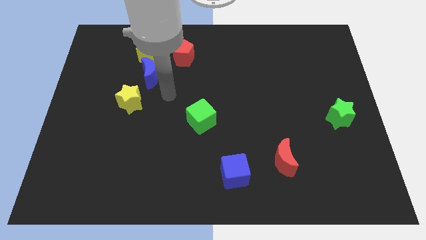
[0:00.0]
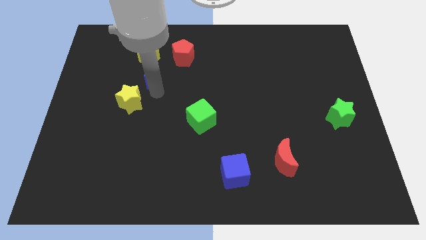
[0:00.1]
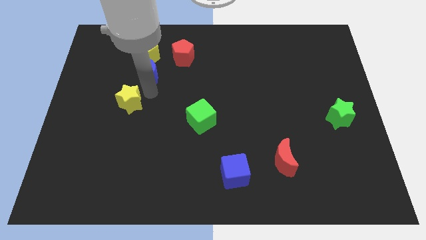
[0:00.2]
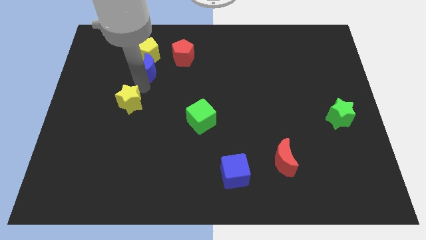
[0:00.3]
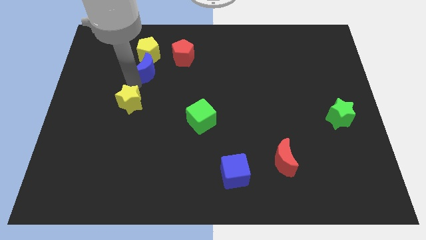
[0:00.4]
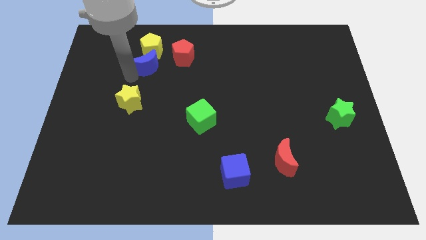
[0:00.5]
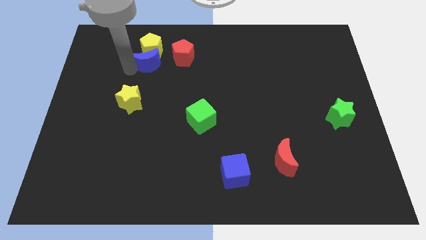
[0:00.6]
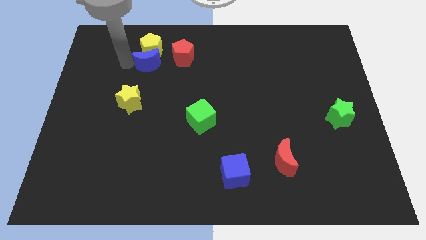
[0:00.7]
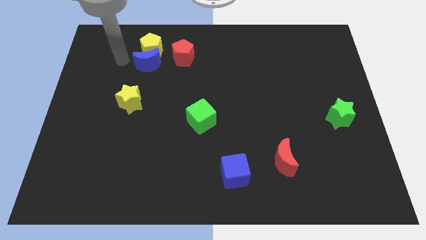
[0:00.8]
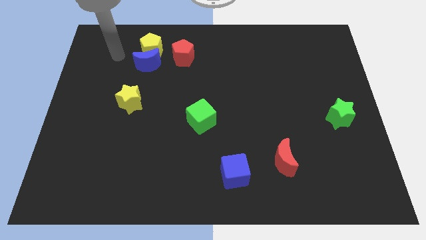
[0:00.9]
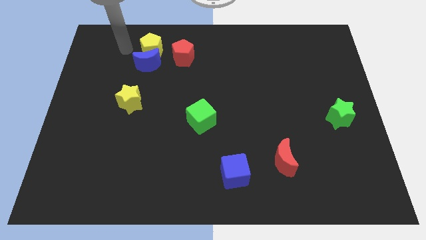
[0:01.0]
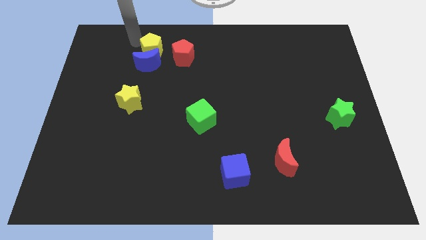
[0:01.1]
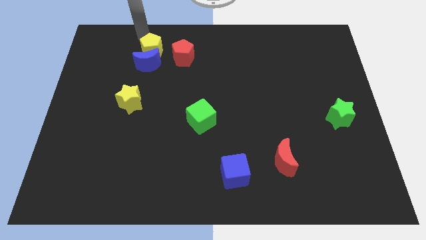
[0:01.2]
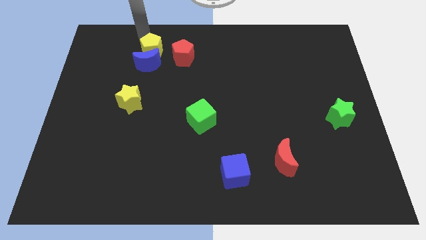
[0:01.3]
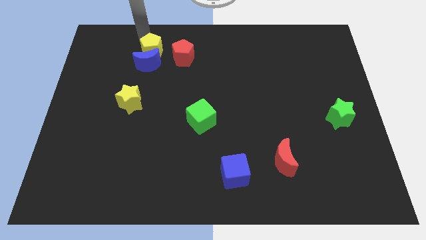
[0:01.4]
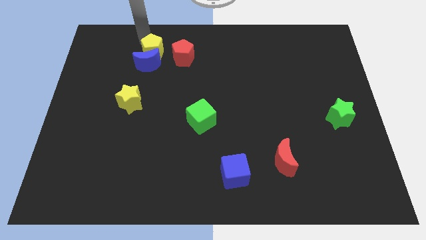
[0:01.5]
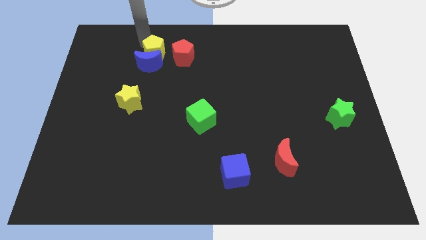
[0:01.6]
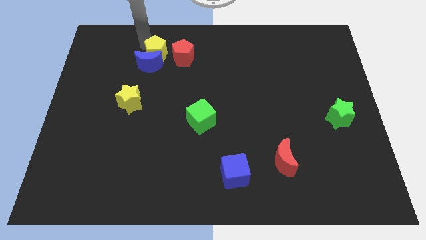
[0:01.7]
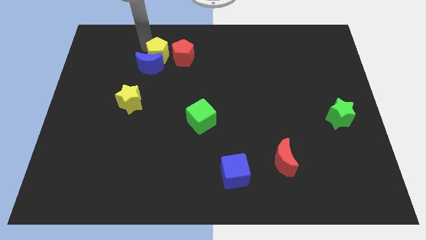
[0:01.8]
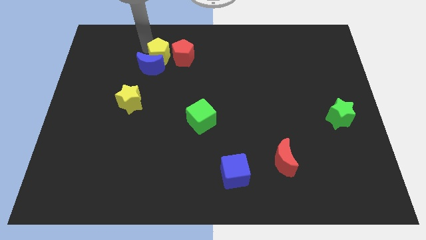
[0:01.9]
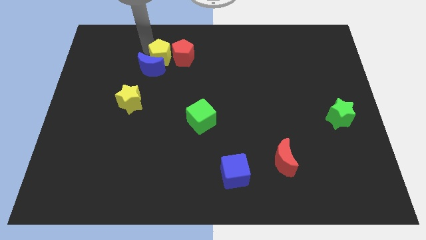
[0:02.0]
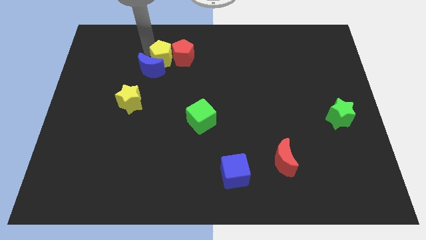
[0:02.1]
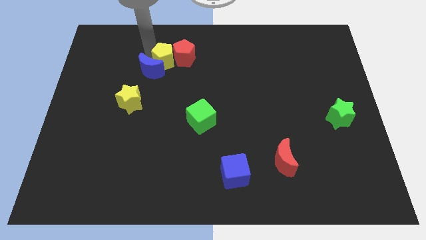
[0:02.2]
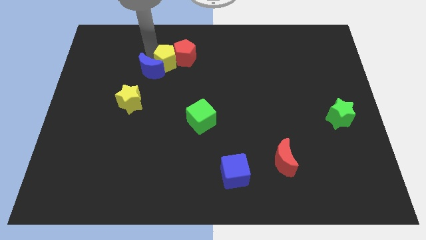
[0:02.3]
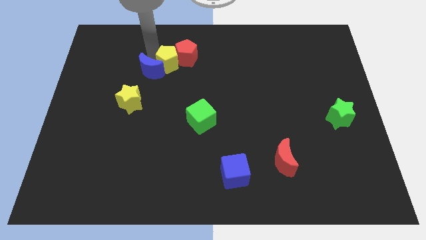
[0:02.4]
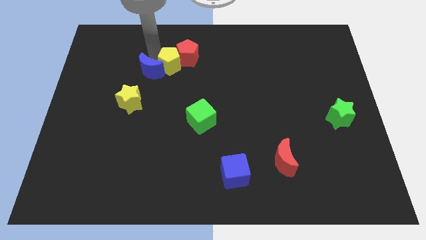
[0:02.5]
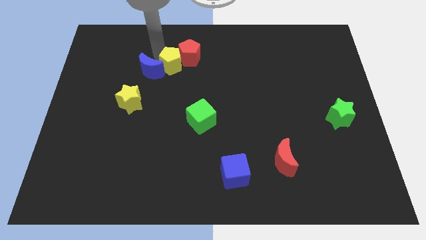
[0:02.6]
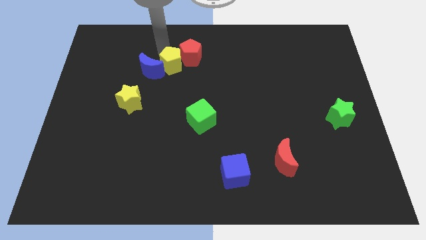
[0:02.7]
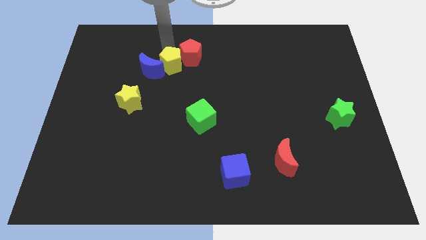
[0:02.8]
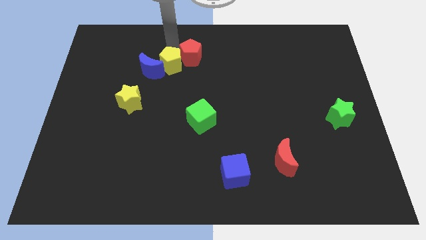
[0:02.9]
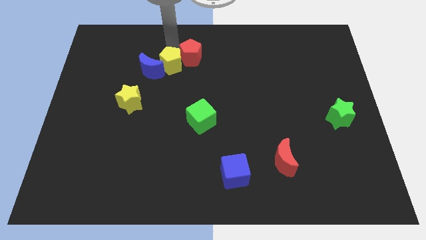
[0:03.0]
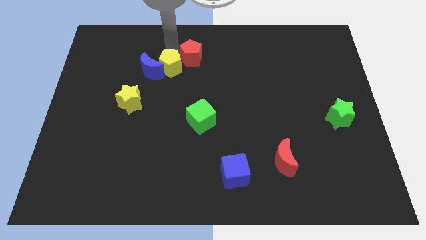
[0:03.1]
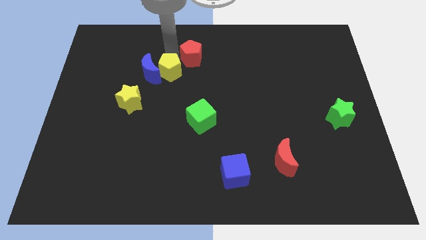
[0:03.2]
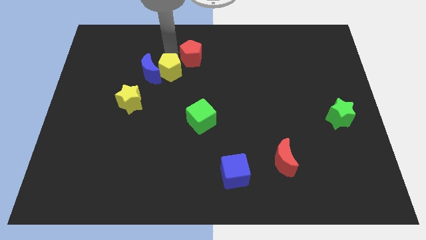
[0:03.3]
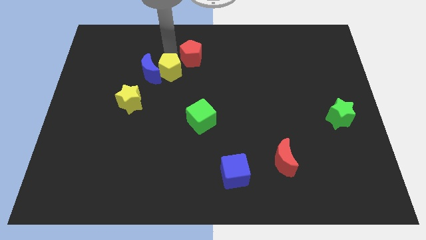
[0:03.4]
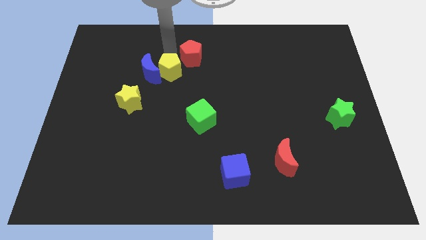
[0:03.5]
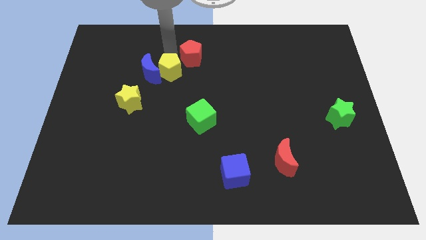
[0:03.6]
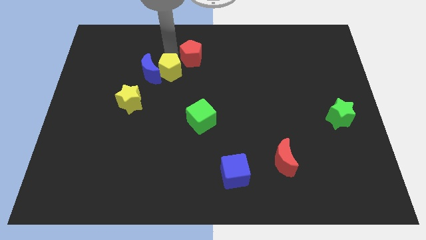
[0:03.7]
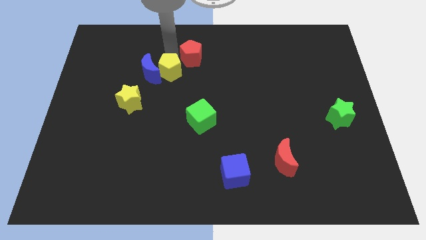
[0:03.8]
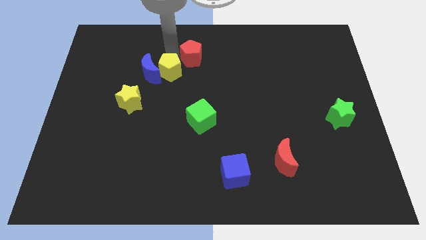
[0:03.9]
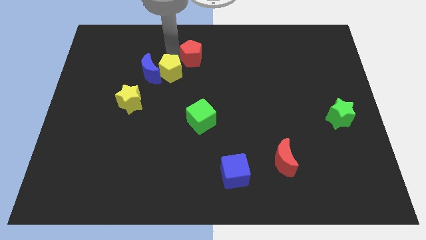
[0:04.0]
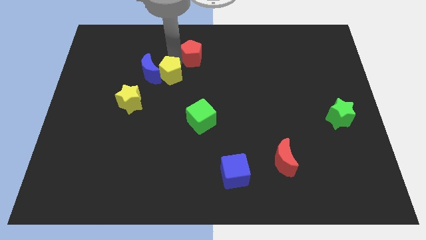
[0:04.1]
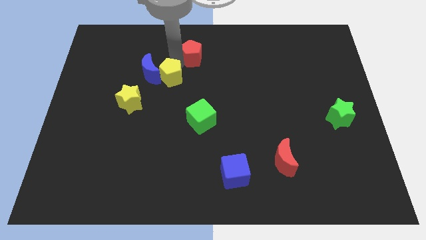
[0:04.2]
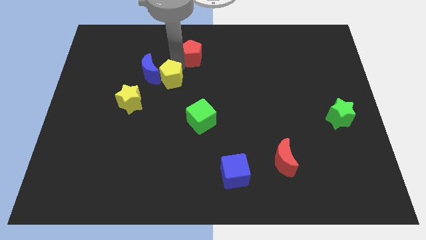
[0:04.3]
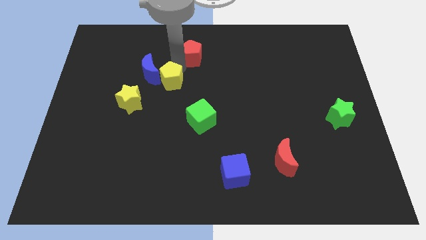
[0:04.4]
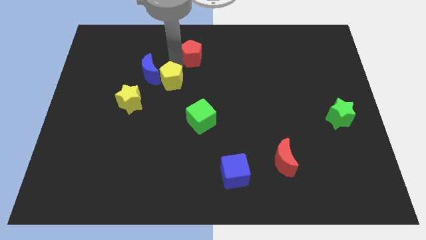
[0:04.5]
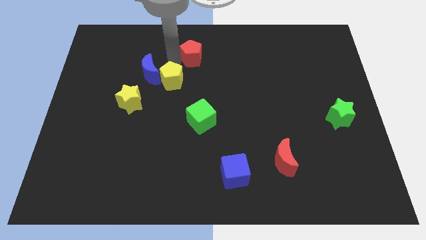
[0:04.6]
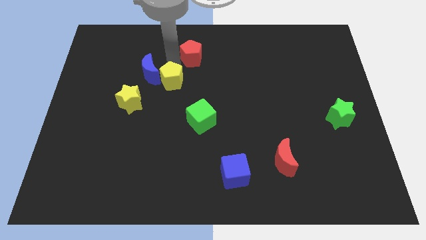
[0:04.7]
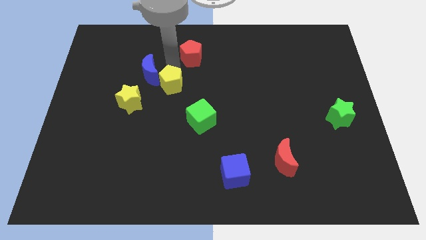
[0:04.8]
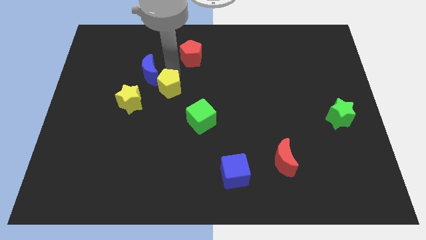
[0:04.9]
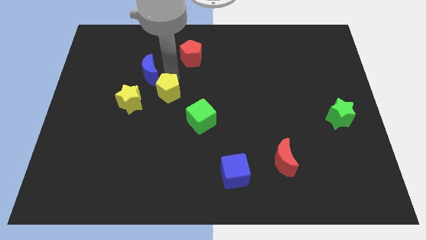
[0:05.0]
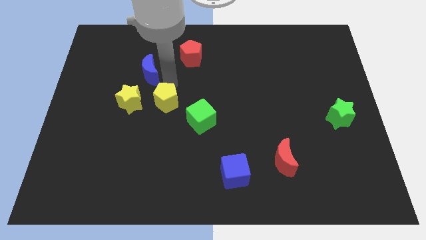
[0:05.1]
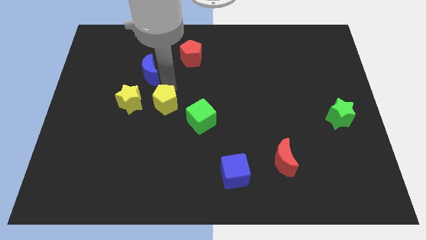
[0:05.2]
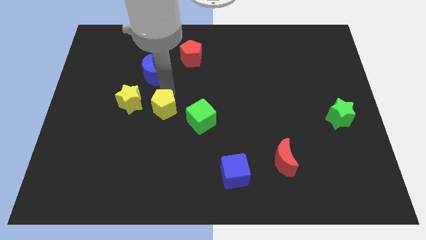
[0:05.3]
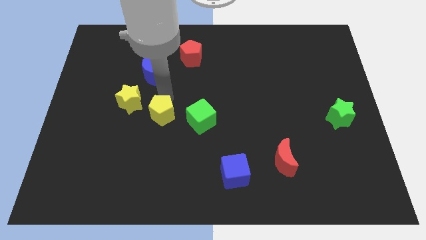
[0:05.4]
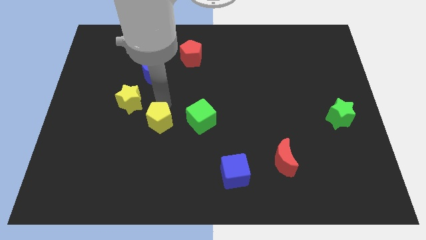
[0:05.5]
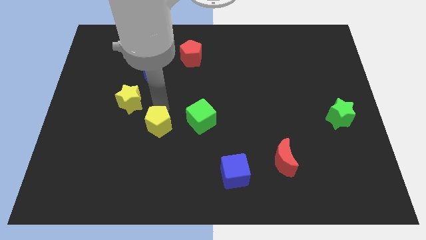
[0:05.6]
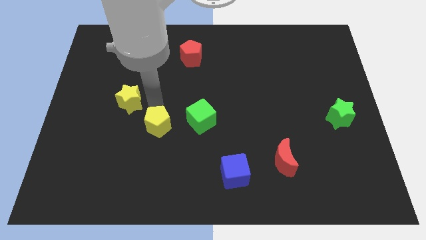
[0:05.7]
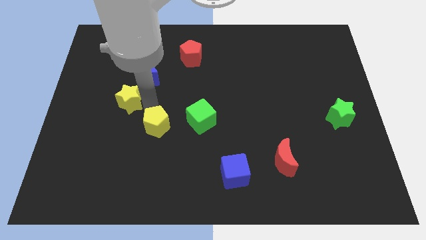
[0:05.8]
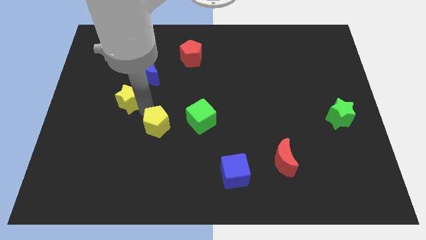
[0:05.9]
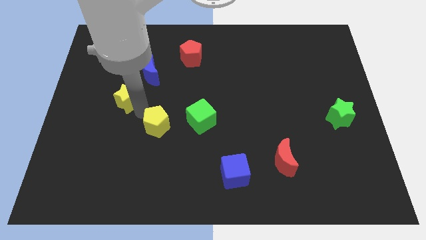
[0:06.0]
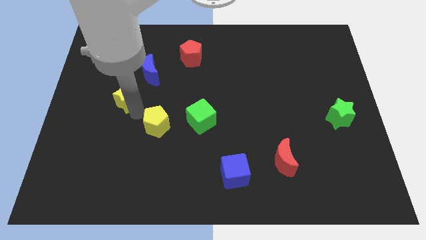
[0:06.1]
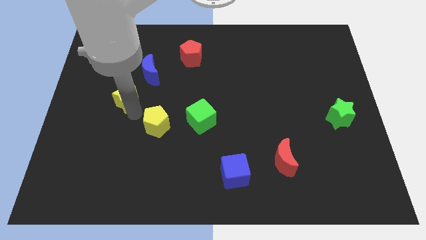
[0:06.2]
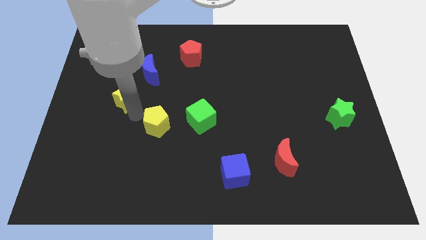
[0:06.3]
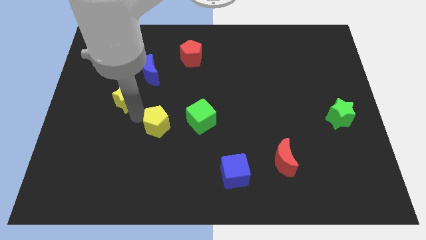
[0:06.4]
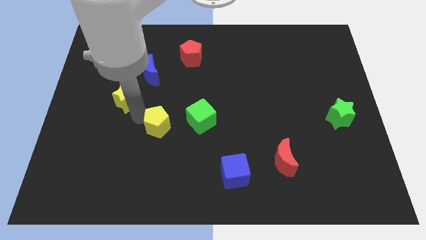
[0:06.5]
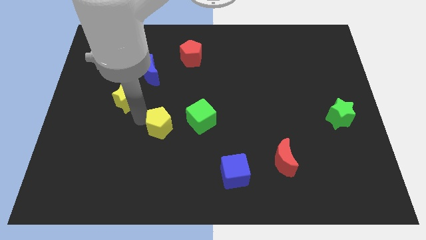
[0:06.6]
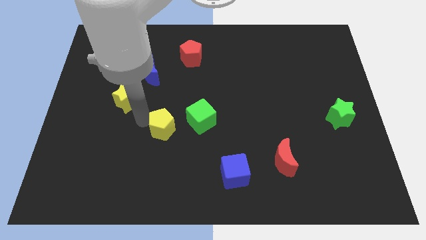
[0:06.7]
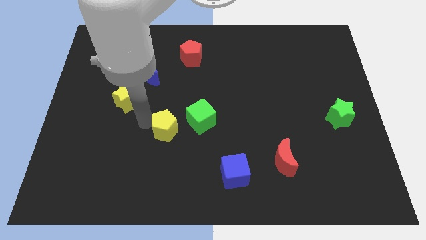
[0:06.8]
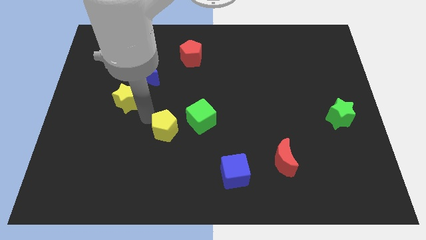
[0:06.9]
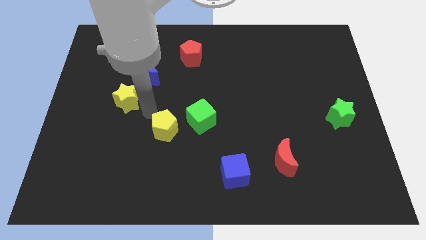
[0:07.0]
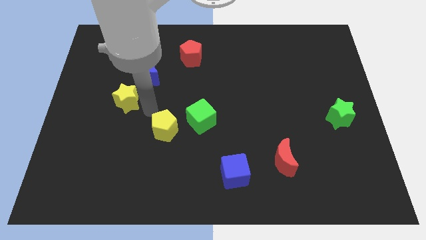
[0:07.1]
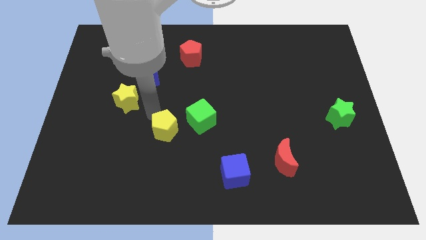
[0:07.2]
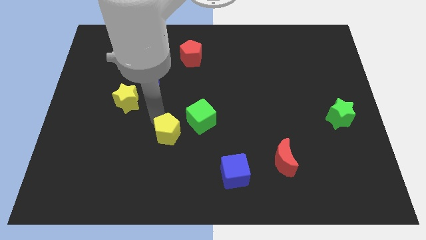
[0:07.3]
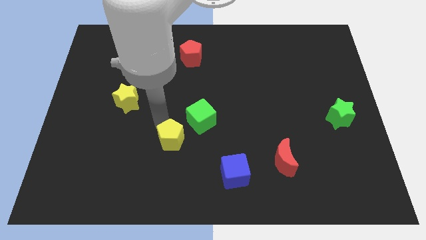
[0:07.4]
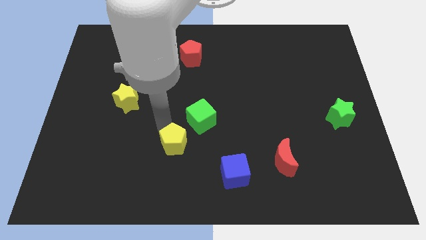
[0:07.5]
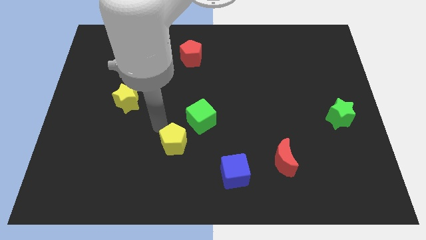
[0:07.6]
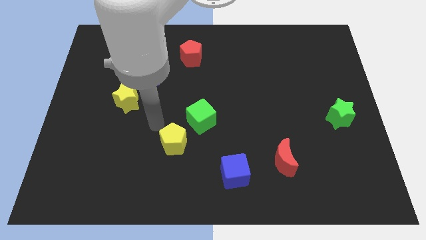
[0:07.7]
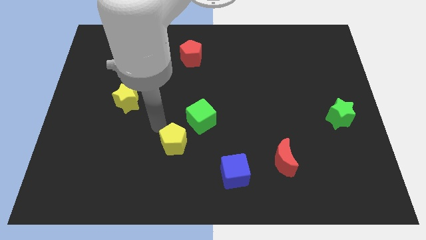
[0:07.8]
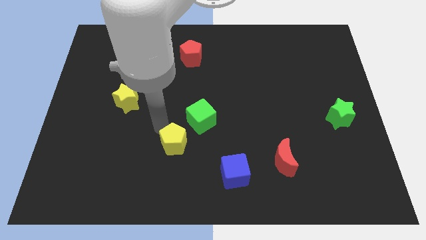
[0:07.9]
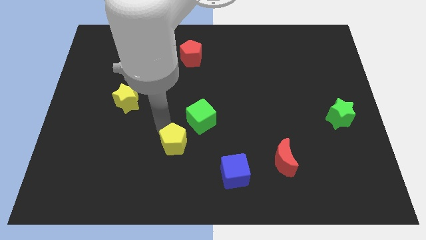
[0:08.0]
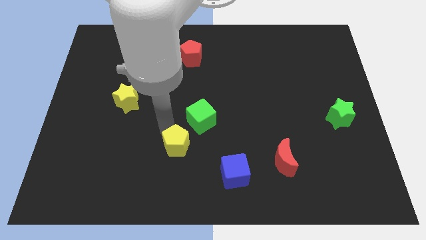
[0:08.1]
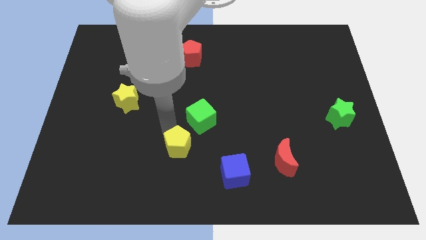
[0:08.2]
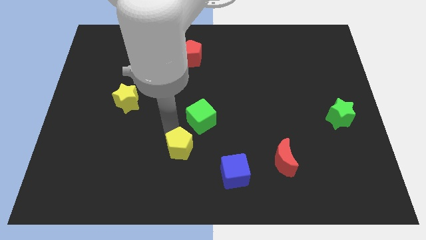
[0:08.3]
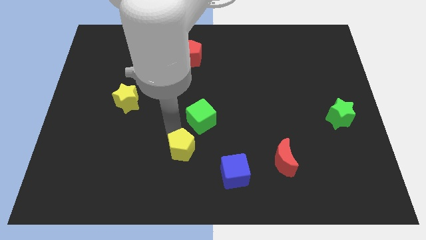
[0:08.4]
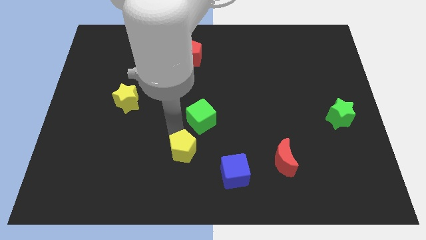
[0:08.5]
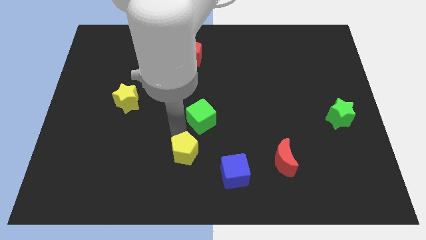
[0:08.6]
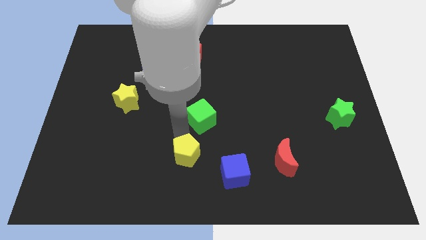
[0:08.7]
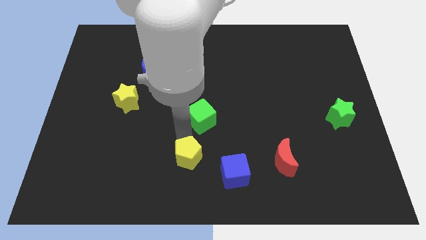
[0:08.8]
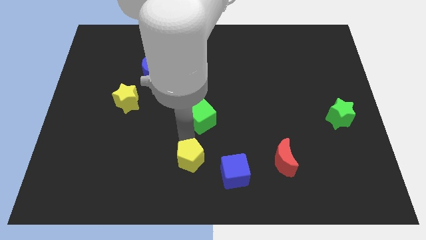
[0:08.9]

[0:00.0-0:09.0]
move the yellow pentagon to the bottom side
